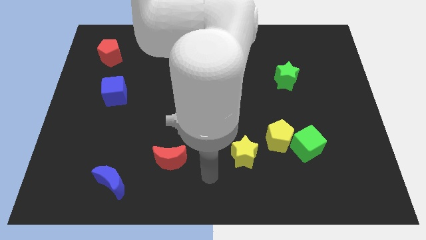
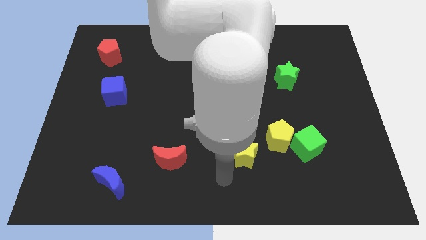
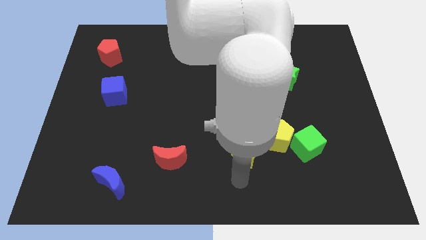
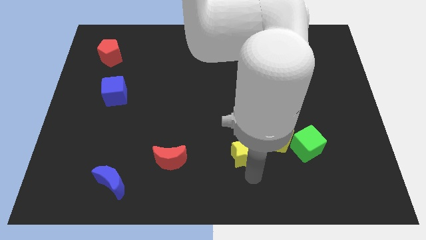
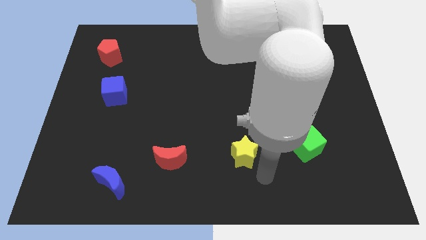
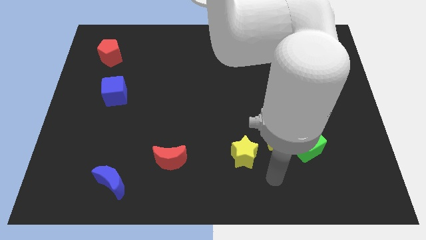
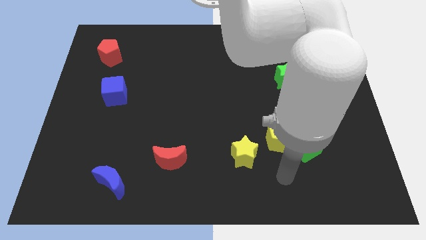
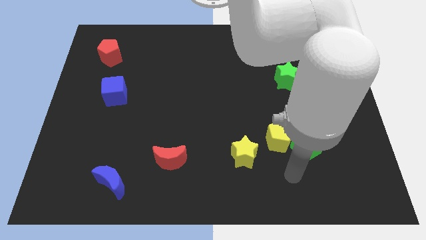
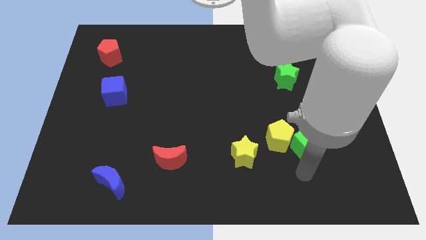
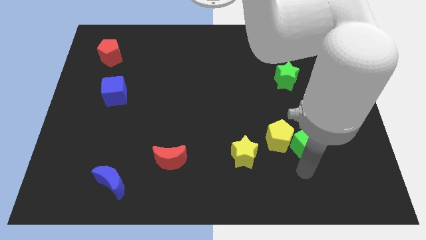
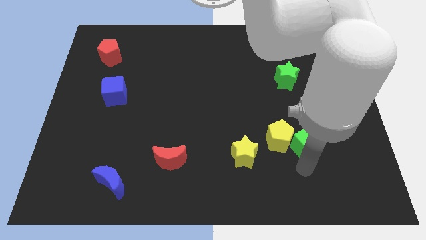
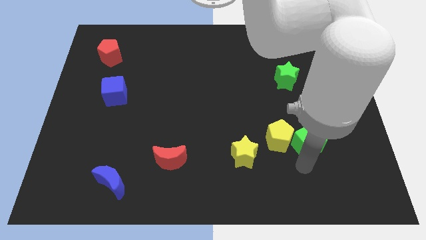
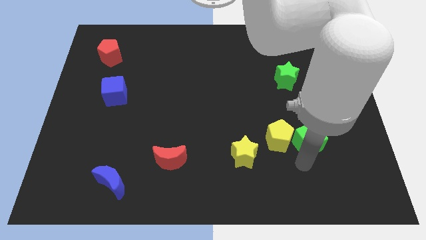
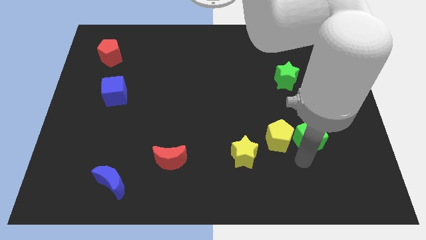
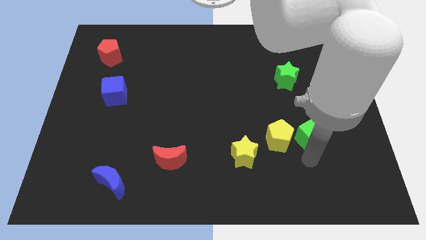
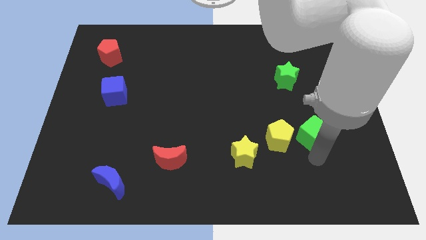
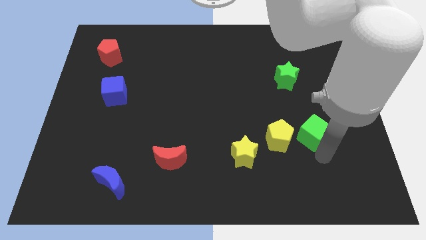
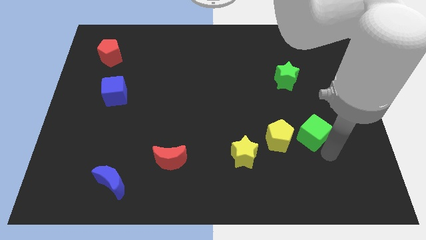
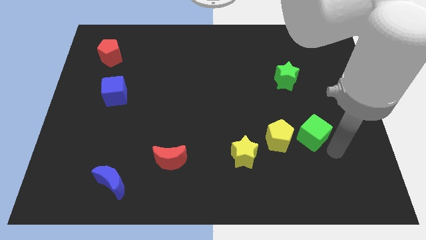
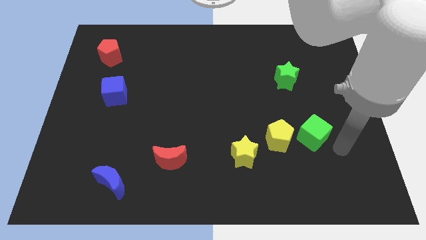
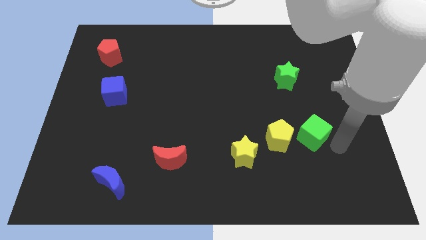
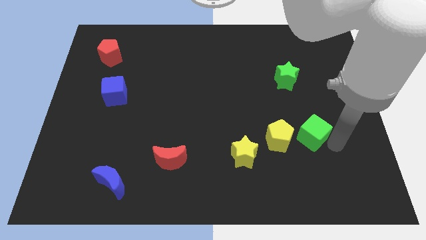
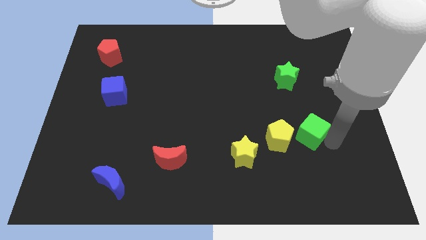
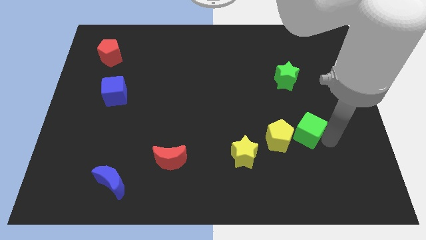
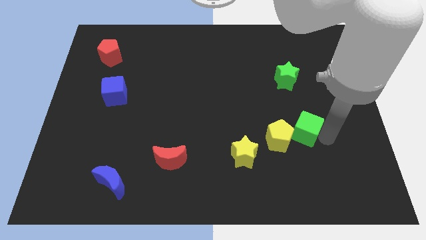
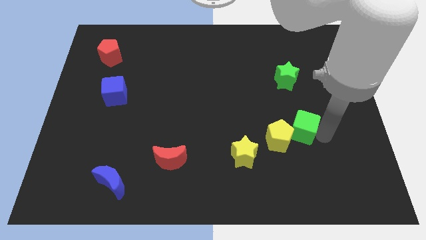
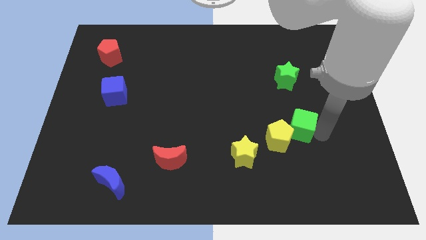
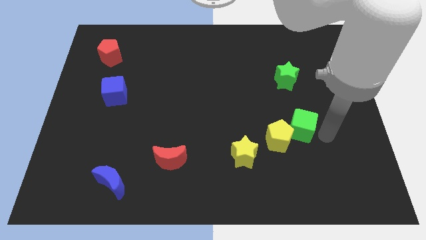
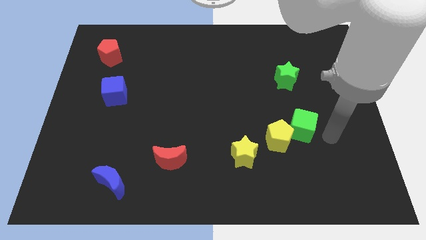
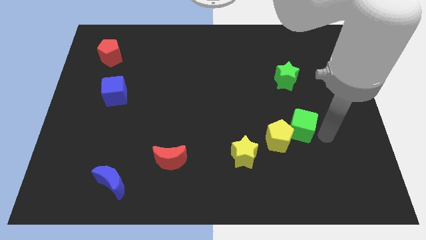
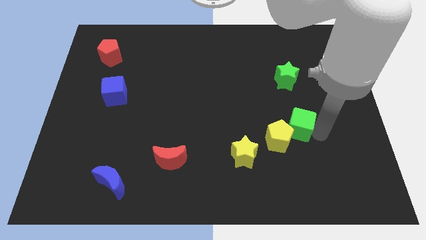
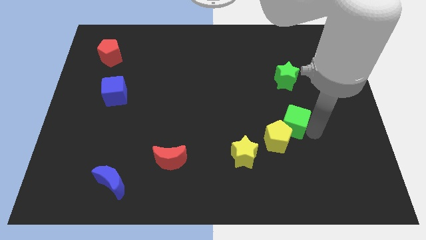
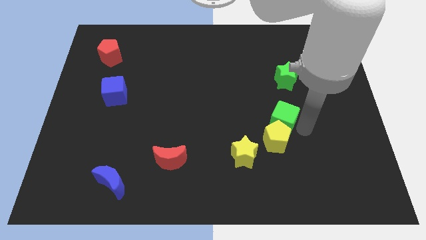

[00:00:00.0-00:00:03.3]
move the green cube slightly up and then to the left

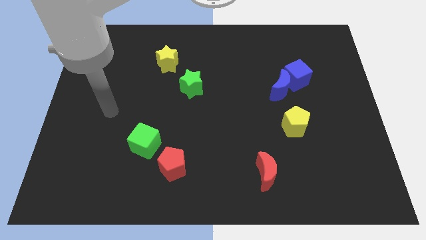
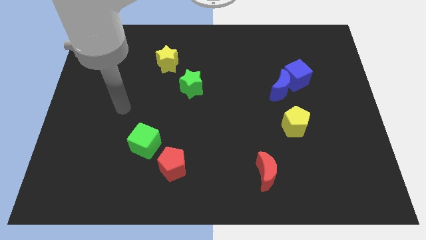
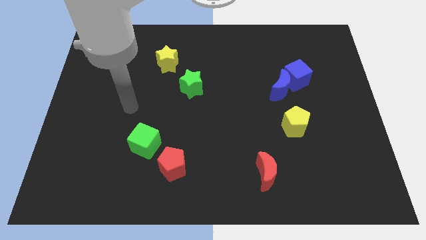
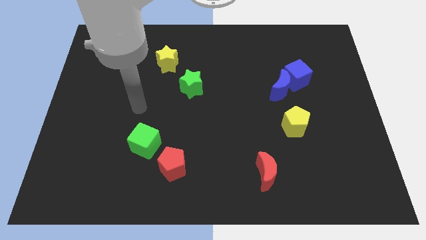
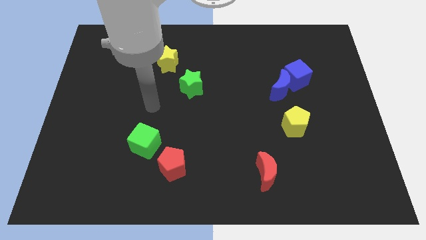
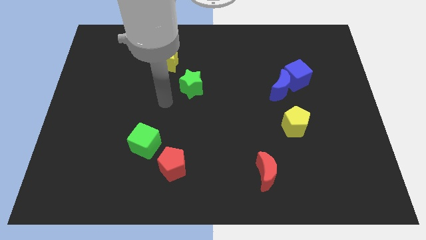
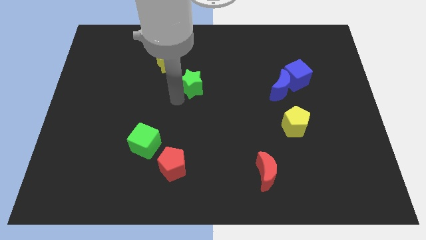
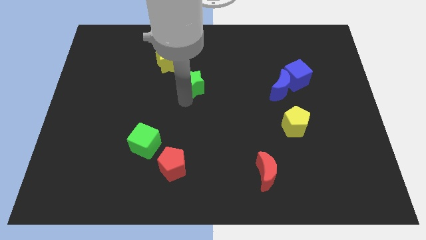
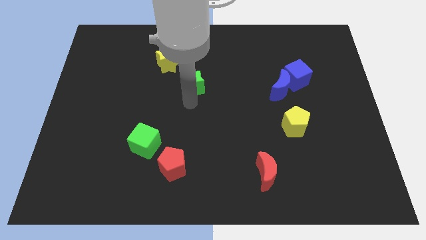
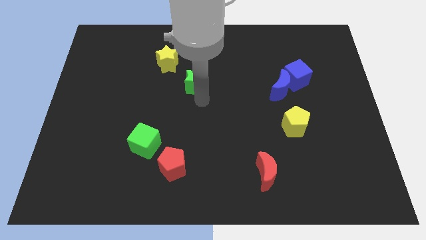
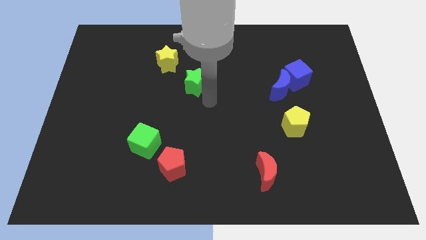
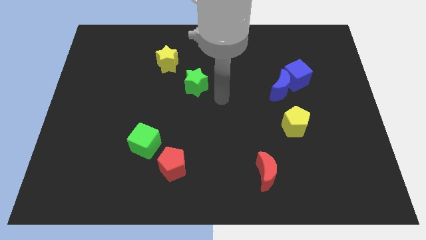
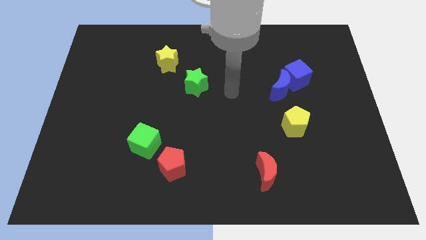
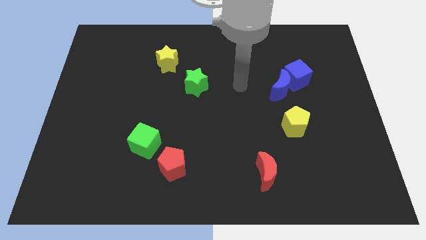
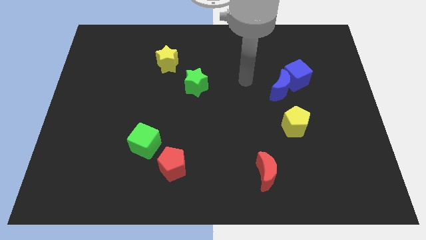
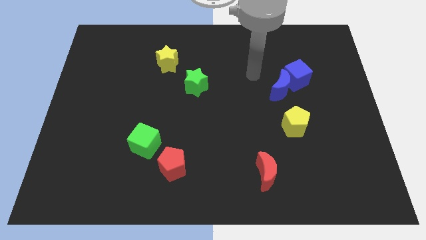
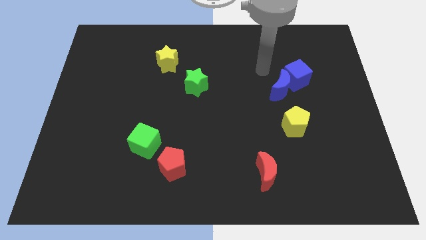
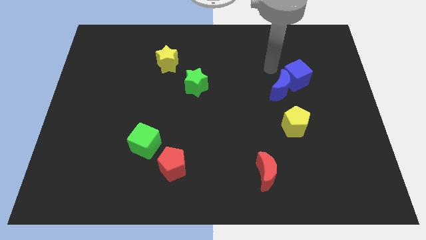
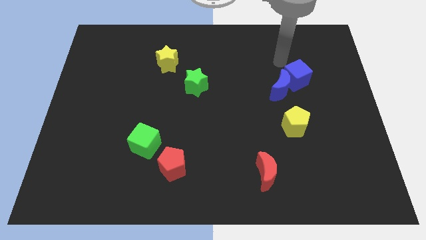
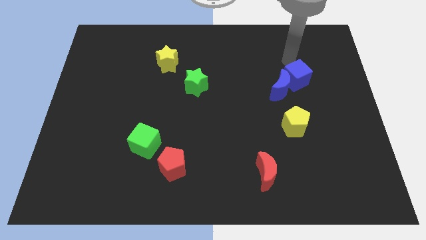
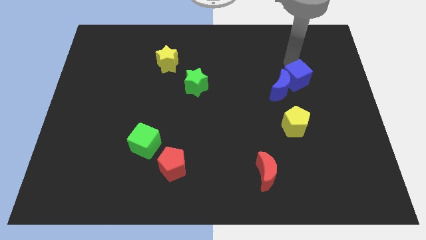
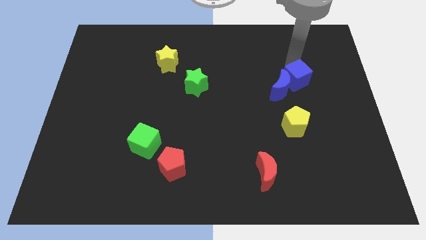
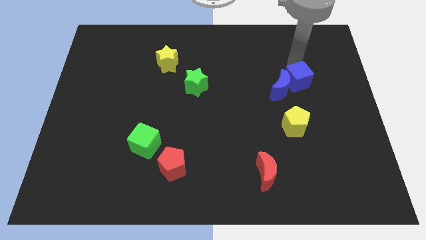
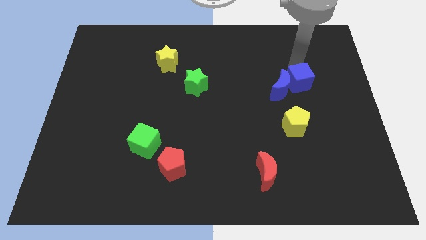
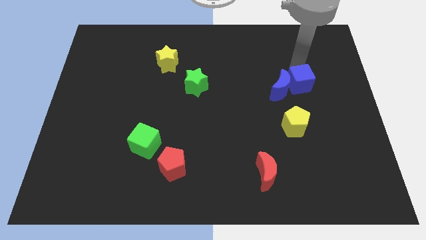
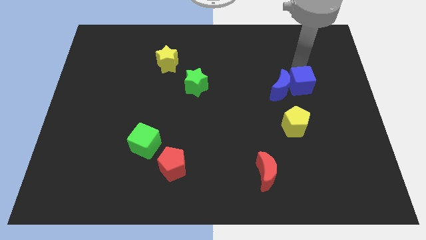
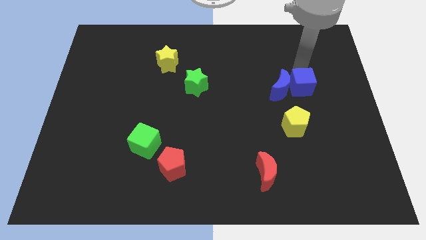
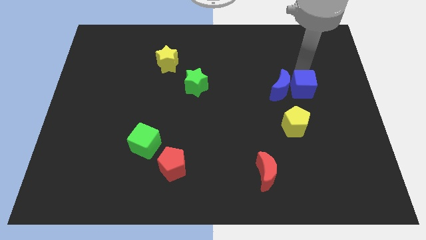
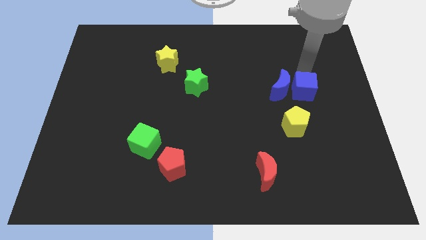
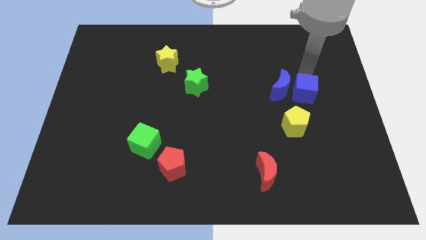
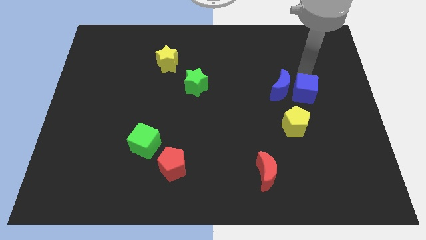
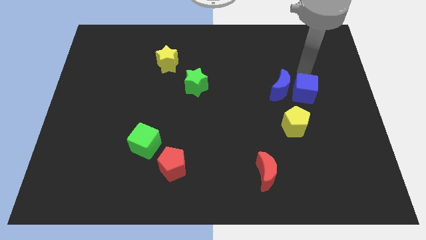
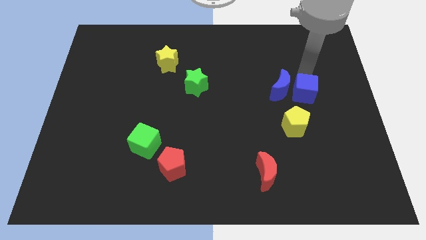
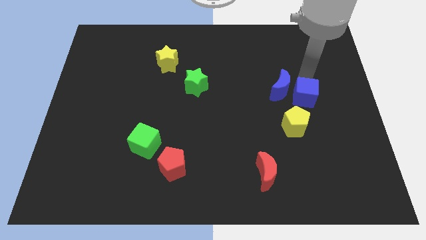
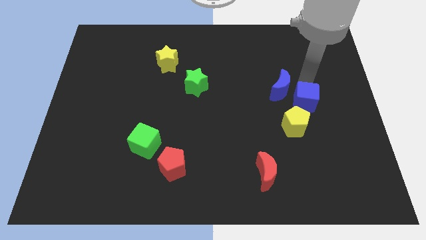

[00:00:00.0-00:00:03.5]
slightly move the blue cube downwards

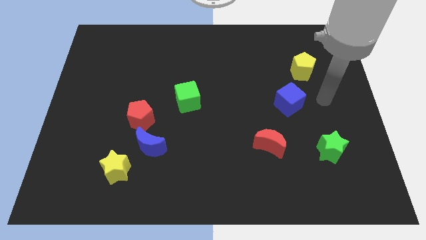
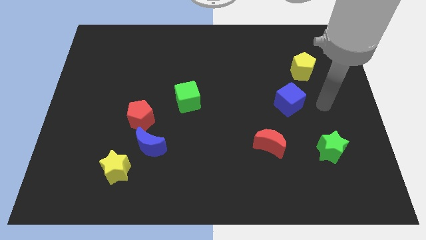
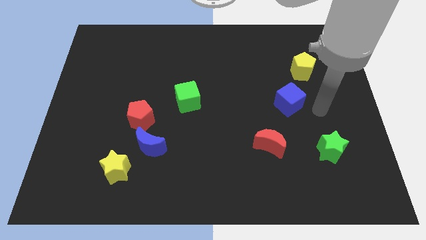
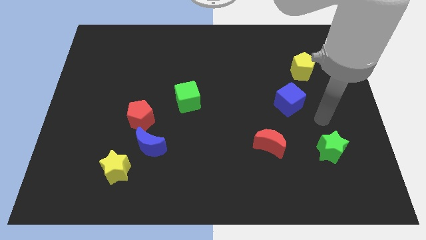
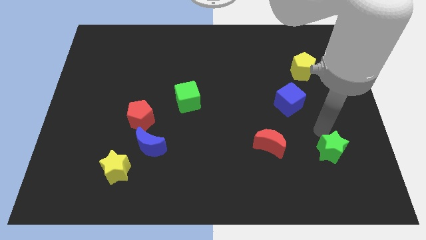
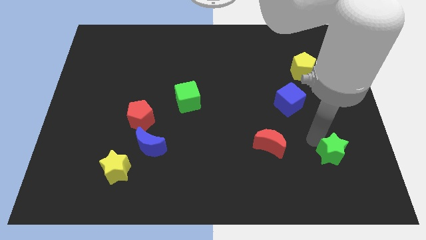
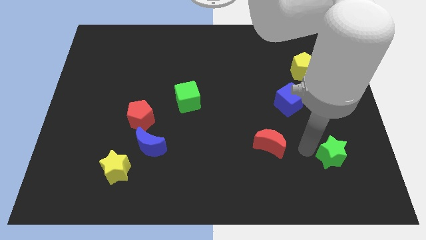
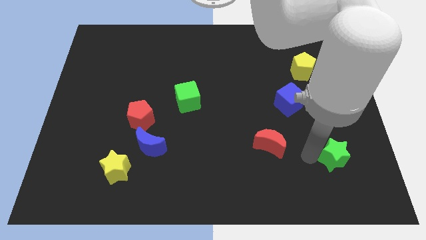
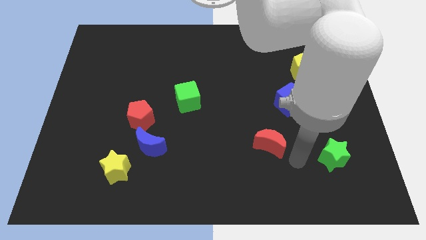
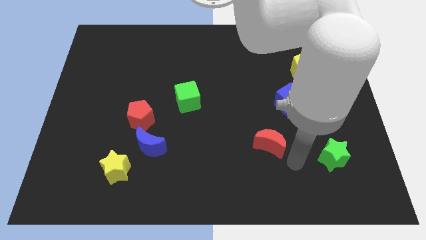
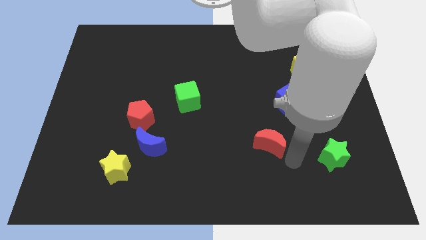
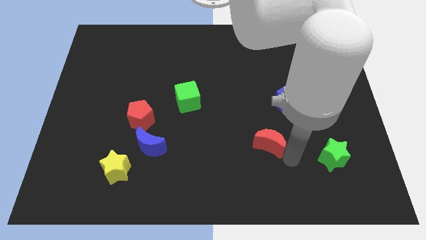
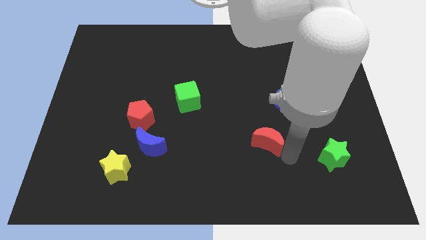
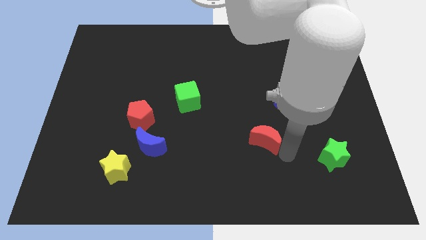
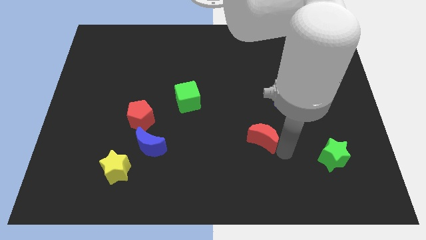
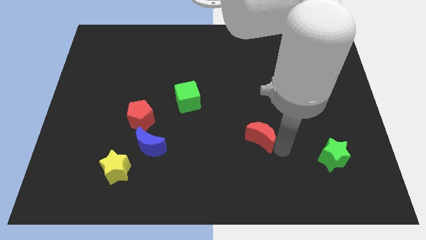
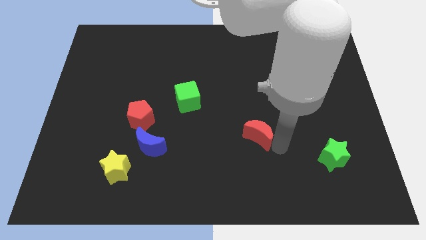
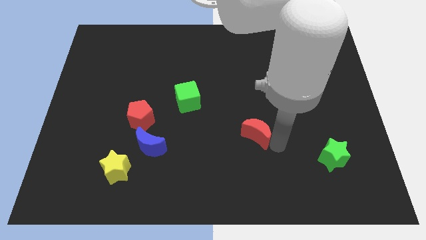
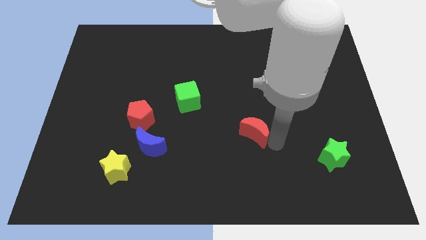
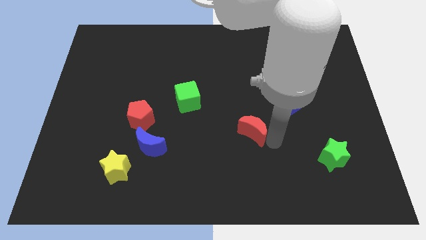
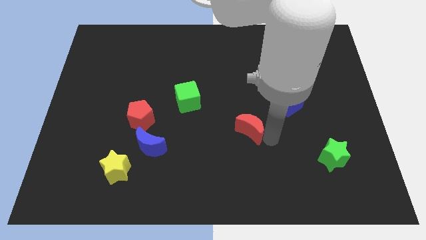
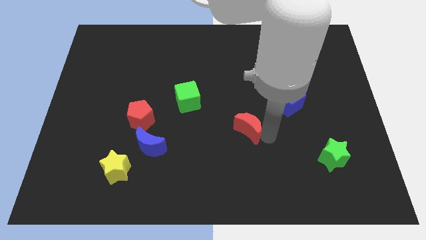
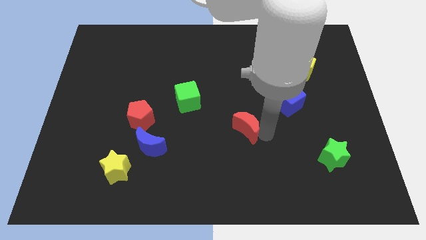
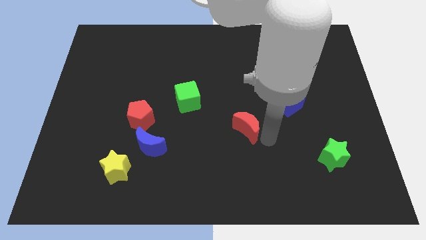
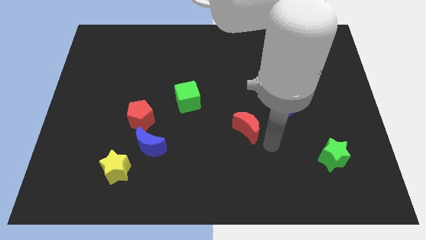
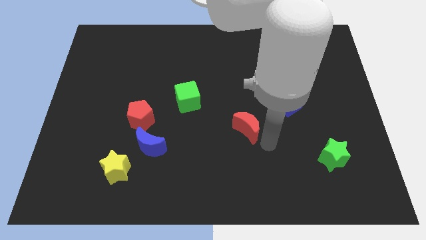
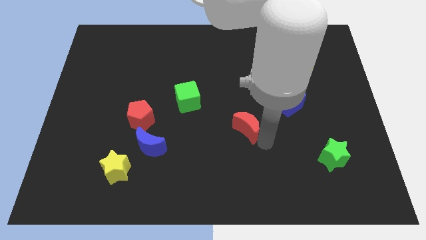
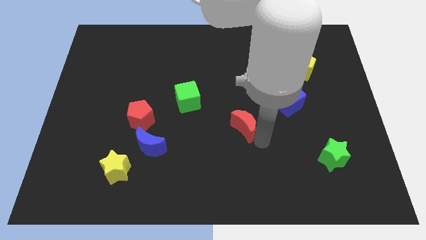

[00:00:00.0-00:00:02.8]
push the red moon up and left a little bit
